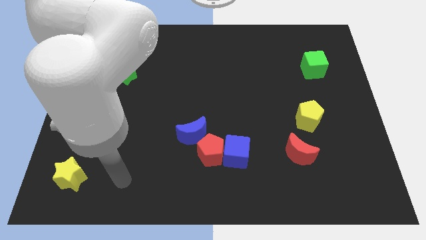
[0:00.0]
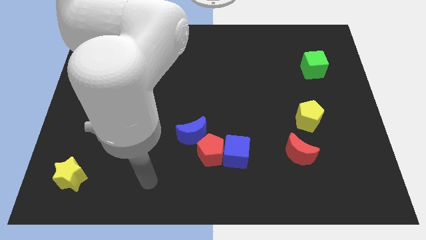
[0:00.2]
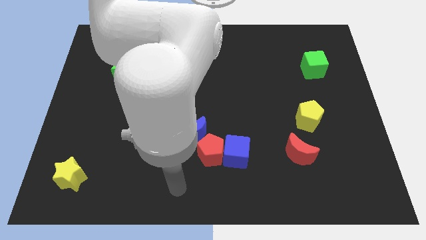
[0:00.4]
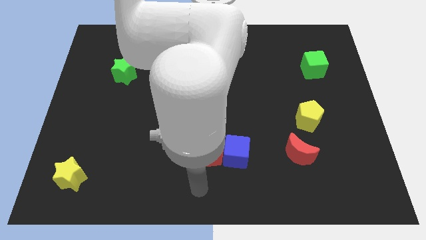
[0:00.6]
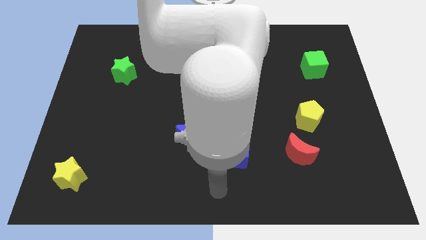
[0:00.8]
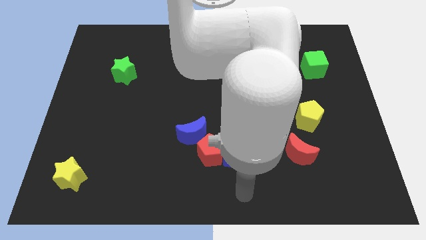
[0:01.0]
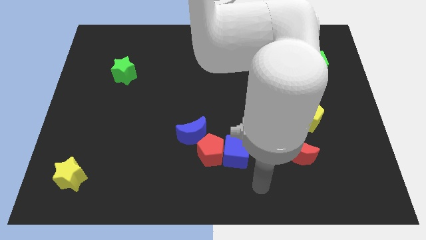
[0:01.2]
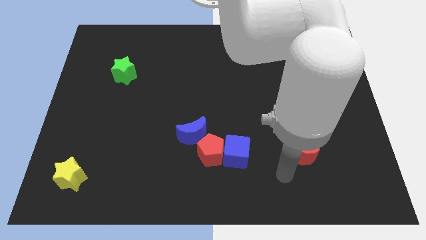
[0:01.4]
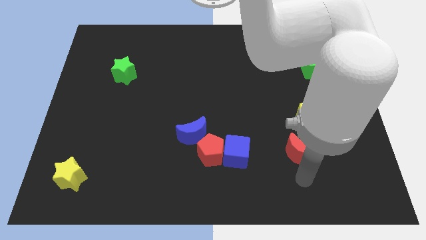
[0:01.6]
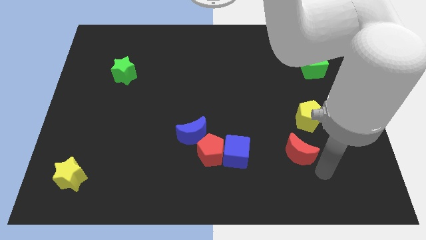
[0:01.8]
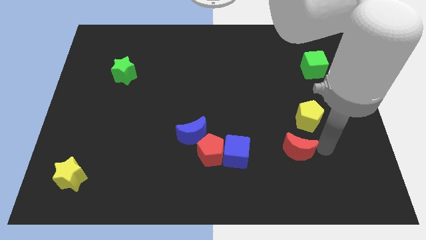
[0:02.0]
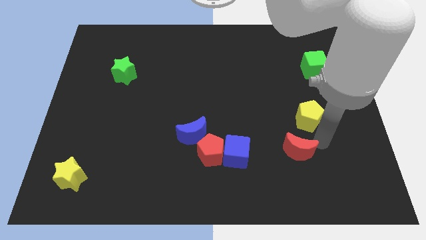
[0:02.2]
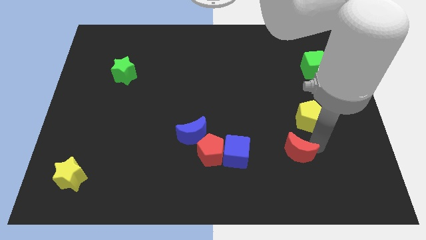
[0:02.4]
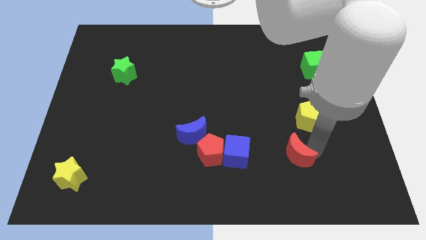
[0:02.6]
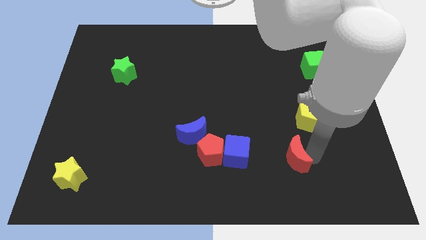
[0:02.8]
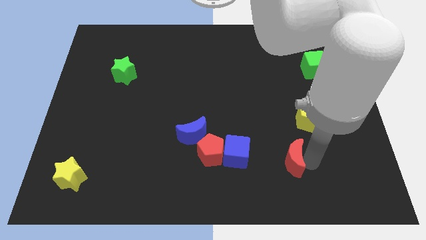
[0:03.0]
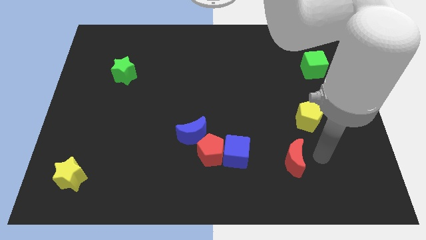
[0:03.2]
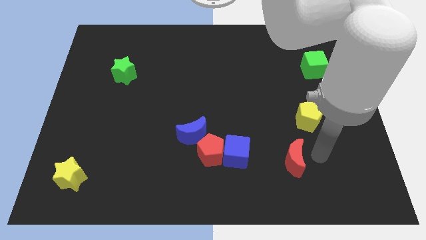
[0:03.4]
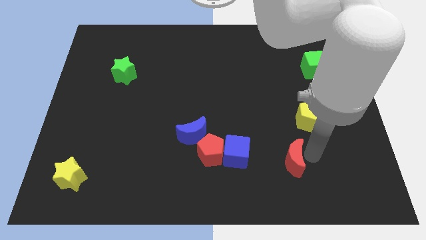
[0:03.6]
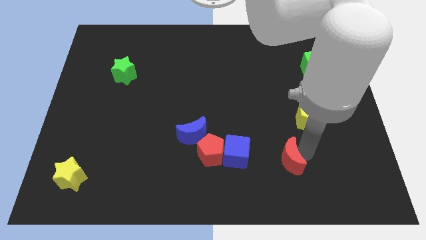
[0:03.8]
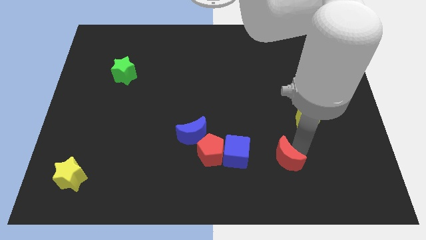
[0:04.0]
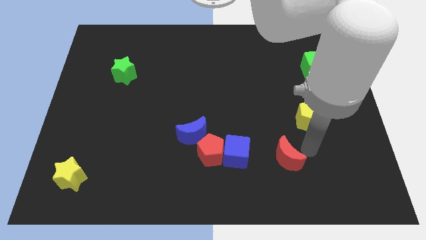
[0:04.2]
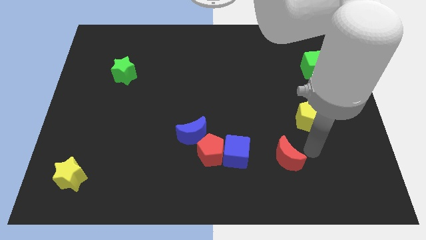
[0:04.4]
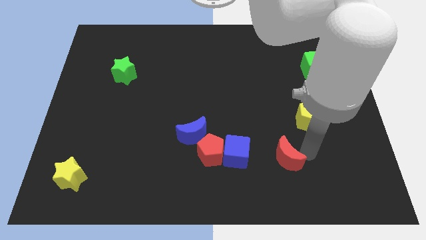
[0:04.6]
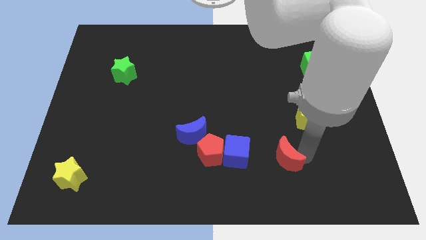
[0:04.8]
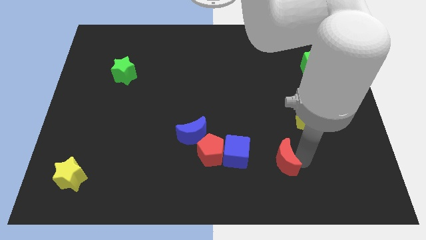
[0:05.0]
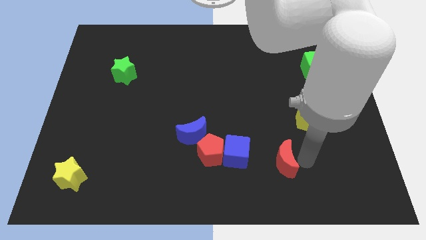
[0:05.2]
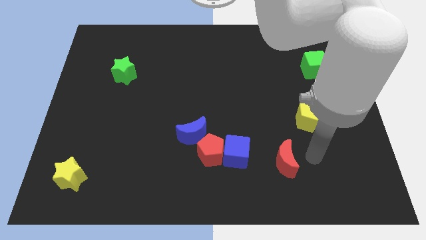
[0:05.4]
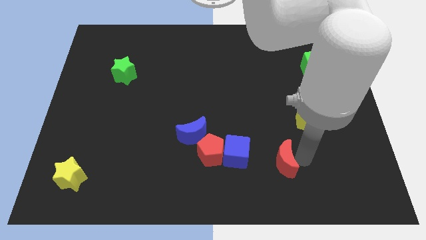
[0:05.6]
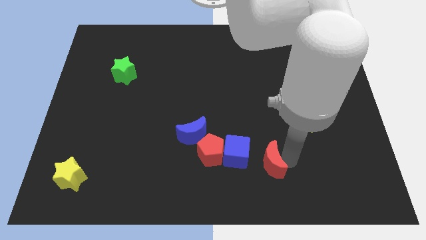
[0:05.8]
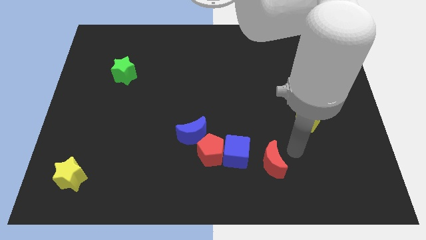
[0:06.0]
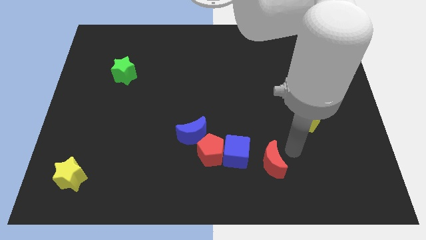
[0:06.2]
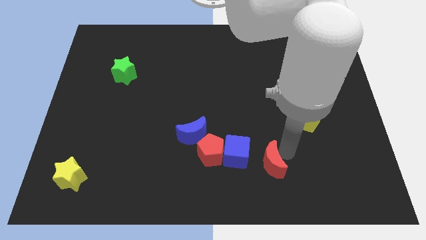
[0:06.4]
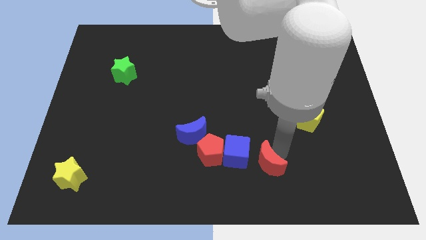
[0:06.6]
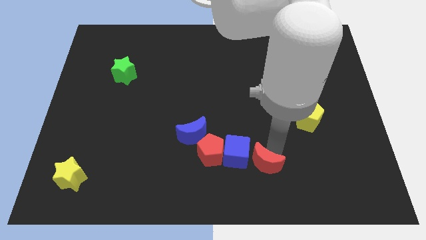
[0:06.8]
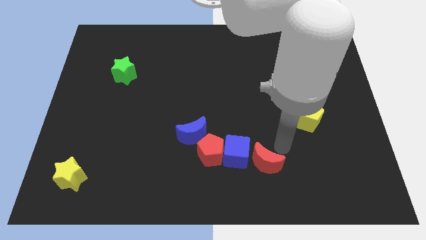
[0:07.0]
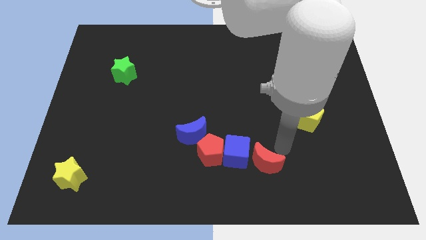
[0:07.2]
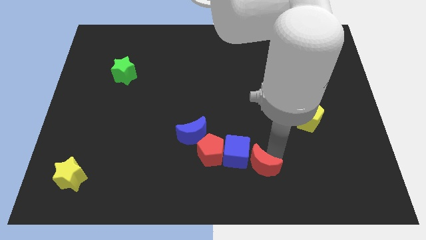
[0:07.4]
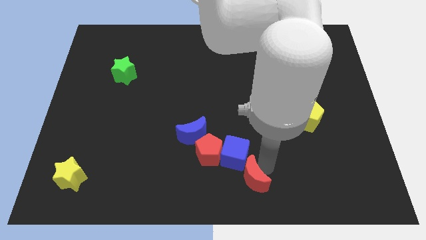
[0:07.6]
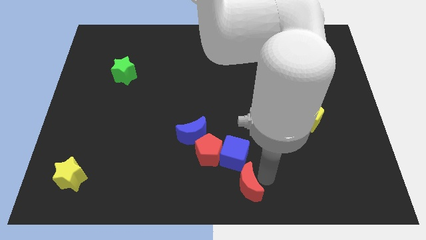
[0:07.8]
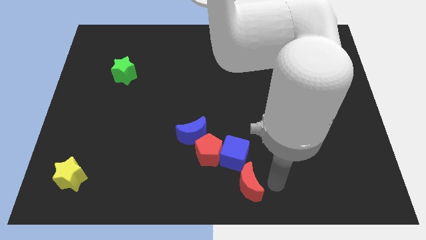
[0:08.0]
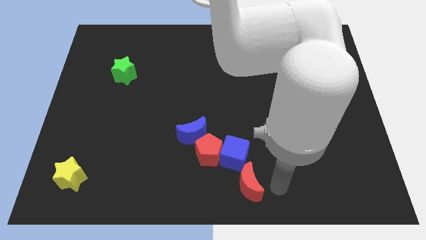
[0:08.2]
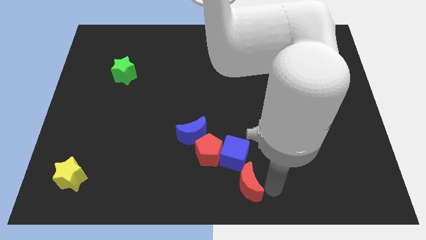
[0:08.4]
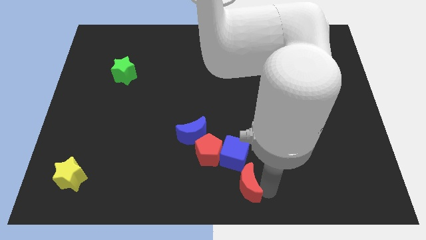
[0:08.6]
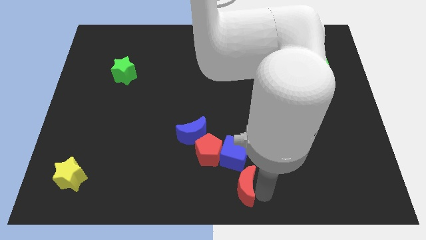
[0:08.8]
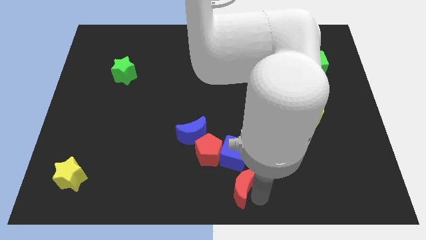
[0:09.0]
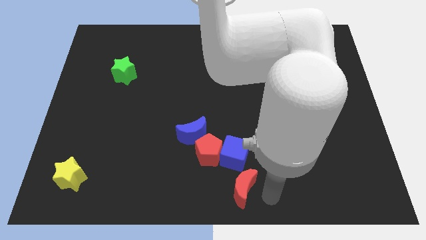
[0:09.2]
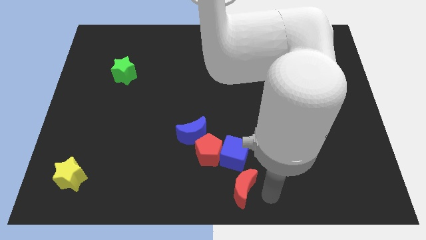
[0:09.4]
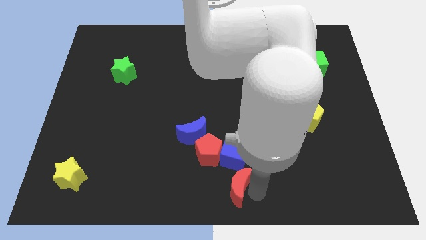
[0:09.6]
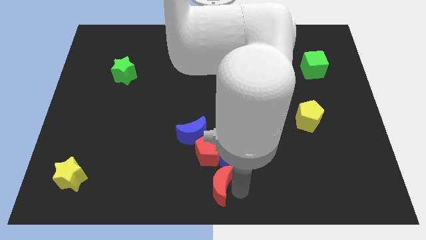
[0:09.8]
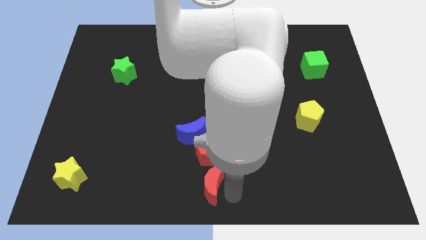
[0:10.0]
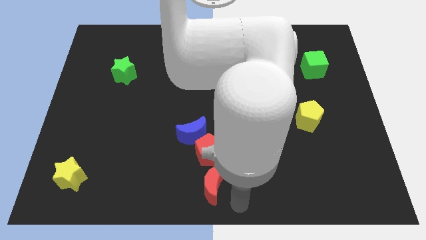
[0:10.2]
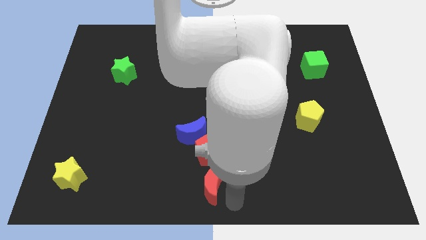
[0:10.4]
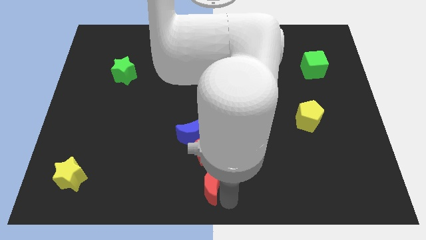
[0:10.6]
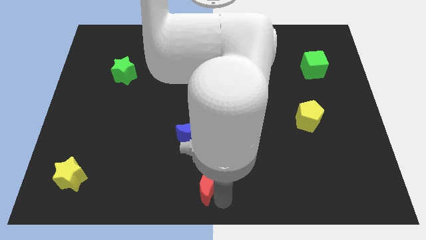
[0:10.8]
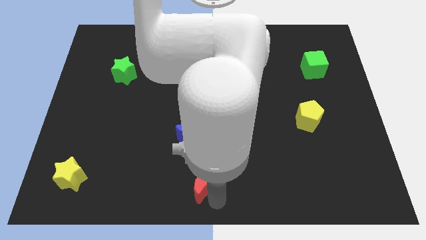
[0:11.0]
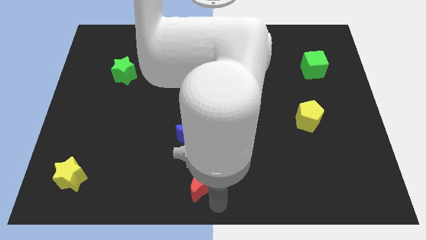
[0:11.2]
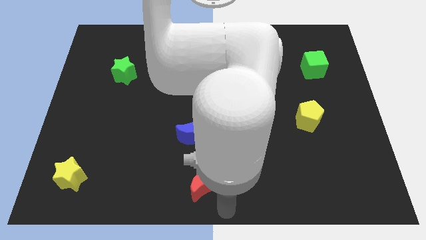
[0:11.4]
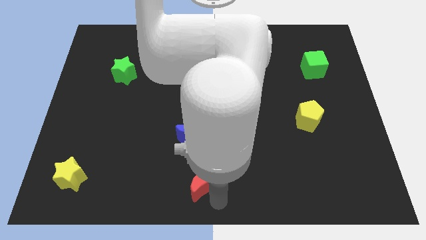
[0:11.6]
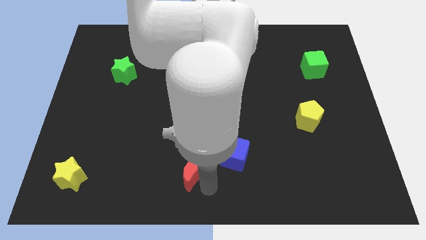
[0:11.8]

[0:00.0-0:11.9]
slide the red moon to the left

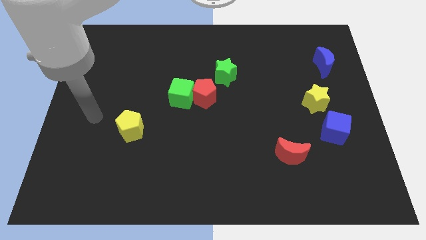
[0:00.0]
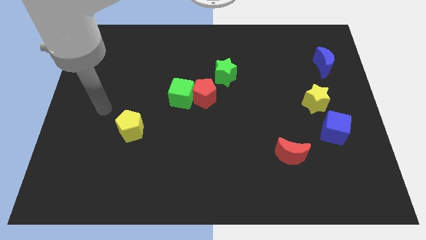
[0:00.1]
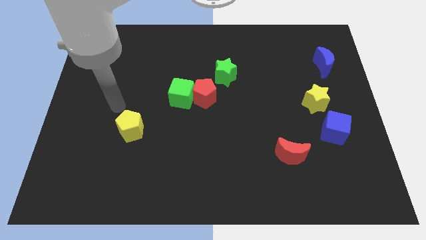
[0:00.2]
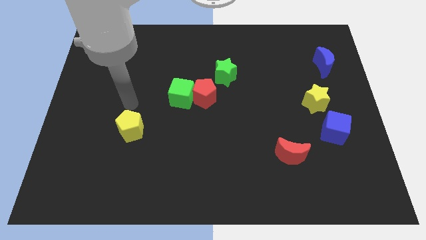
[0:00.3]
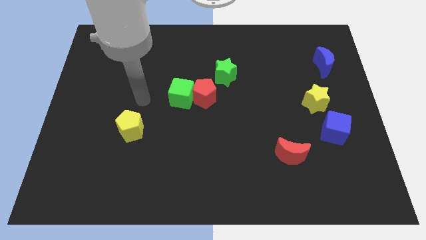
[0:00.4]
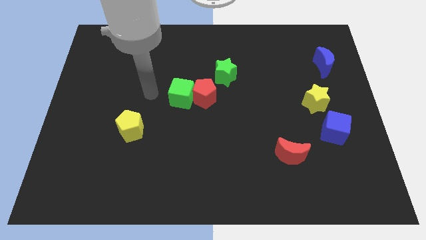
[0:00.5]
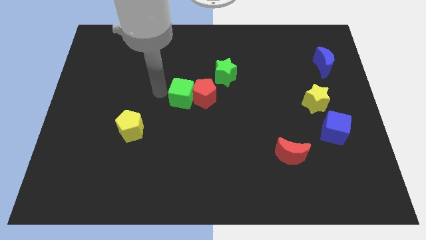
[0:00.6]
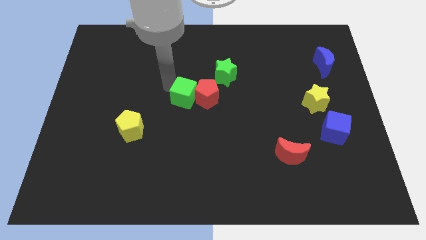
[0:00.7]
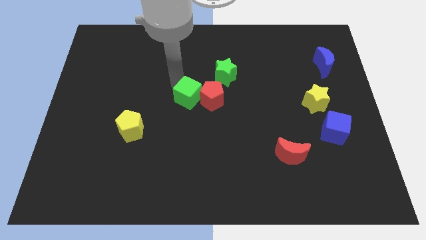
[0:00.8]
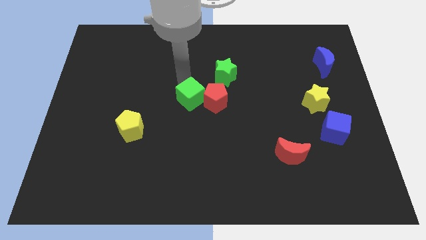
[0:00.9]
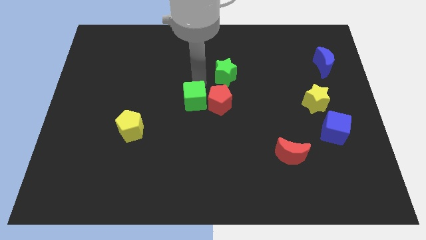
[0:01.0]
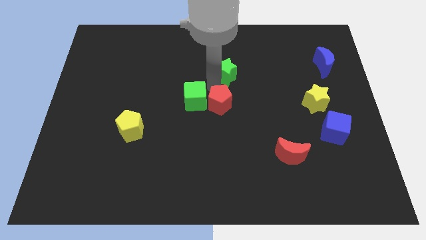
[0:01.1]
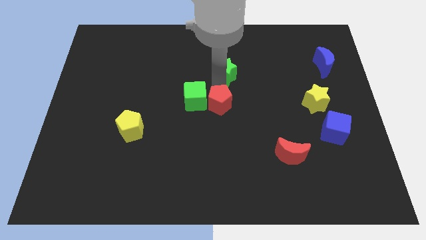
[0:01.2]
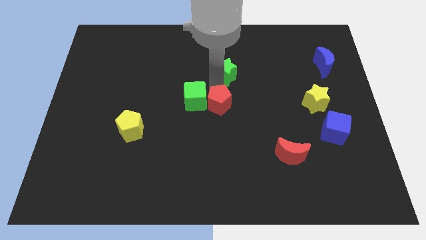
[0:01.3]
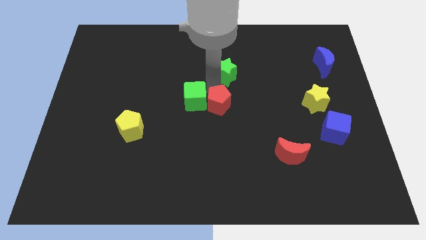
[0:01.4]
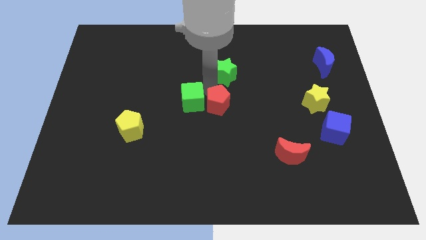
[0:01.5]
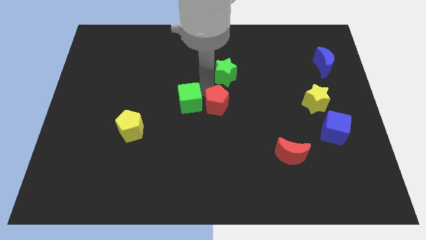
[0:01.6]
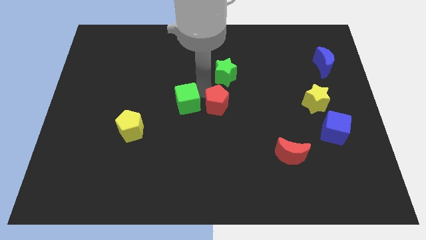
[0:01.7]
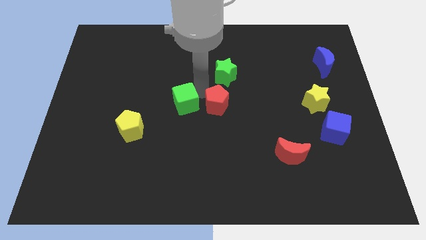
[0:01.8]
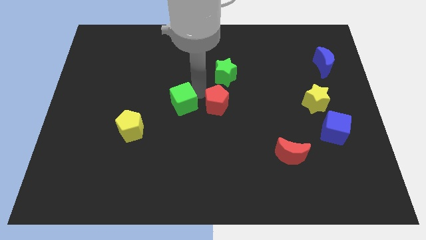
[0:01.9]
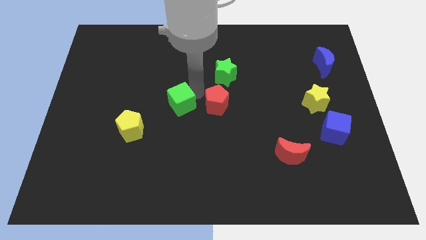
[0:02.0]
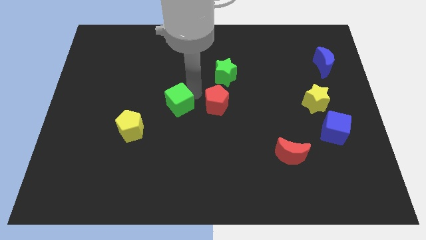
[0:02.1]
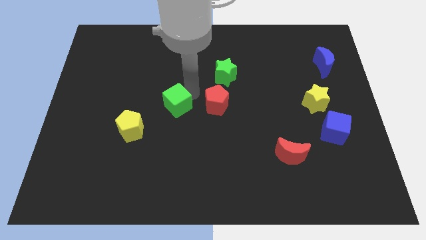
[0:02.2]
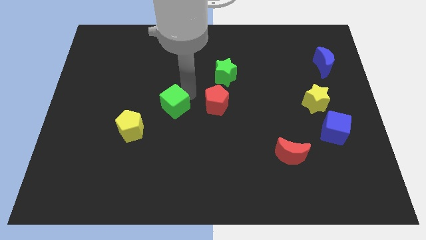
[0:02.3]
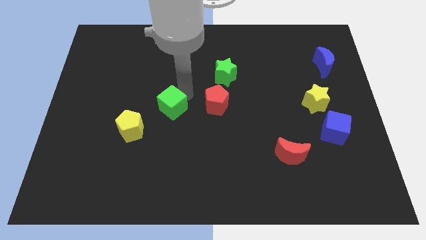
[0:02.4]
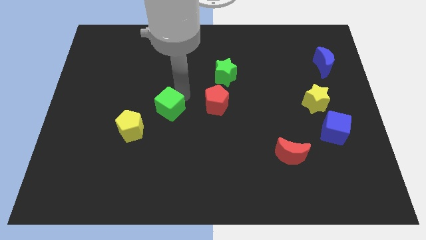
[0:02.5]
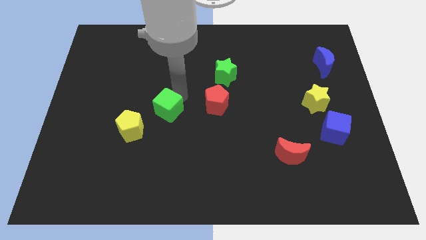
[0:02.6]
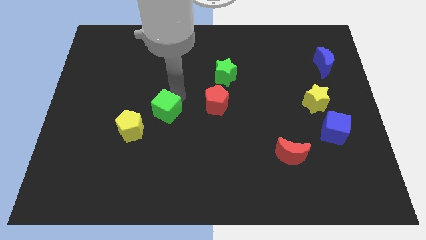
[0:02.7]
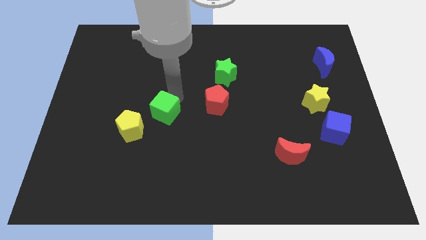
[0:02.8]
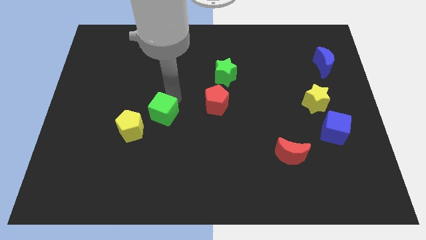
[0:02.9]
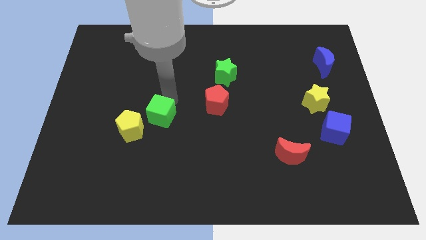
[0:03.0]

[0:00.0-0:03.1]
move the green cube a little downwards and left
